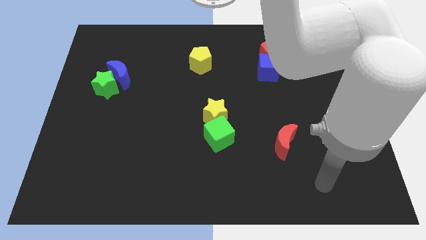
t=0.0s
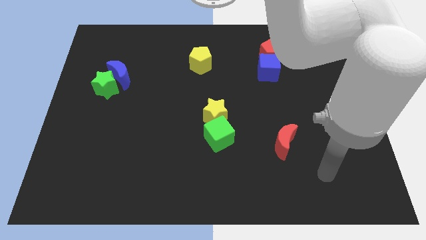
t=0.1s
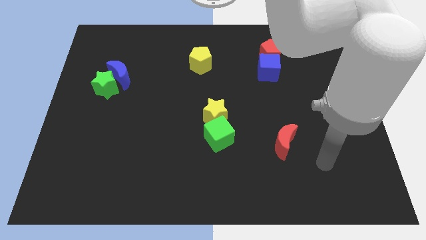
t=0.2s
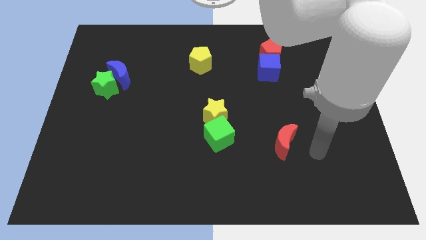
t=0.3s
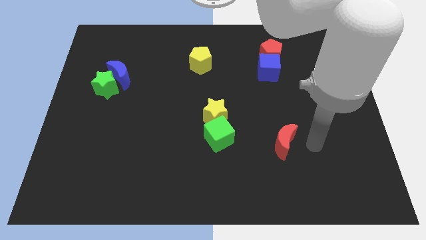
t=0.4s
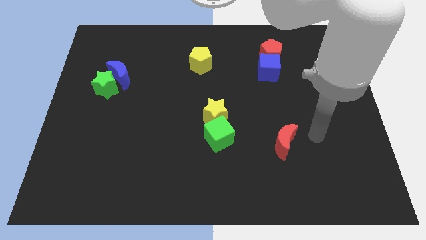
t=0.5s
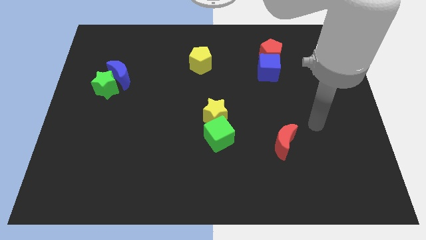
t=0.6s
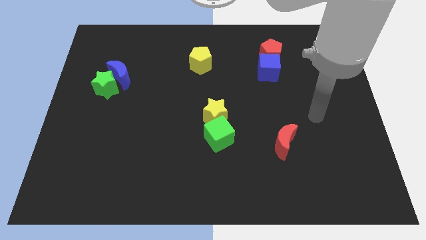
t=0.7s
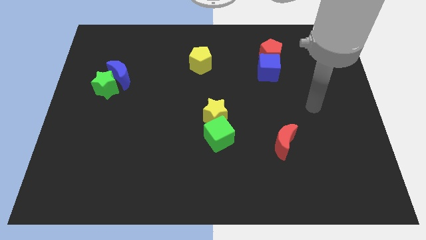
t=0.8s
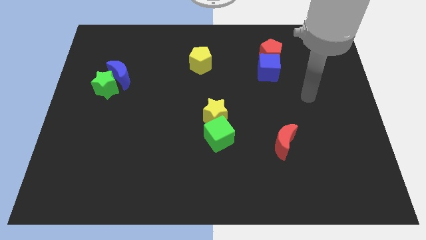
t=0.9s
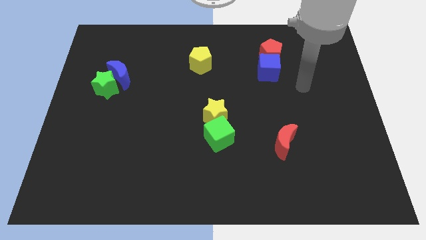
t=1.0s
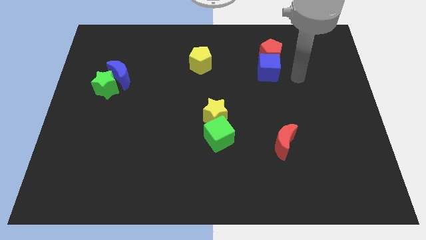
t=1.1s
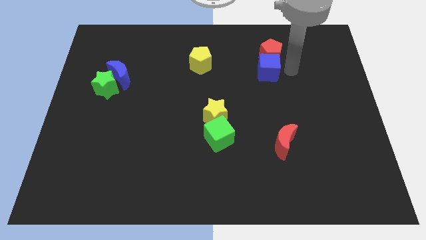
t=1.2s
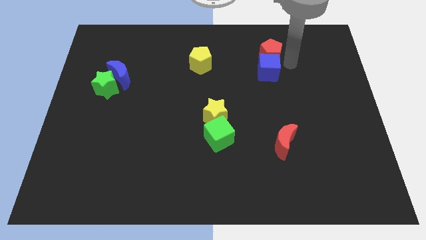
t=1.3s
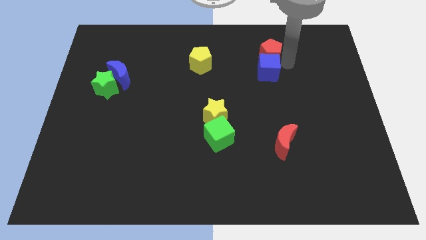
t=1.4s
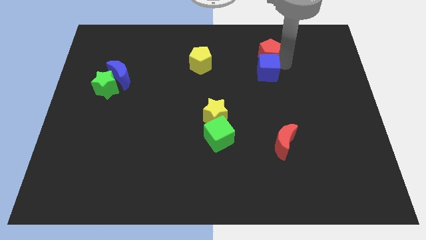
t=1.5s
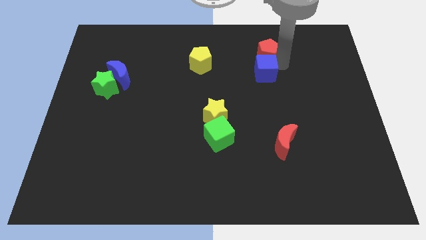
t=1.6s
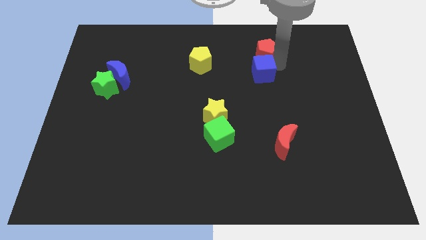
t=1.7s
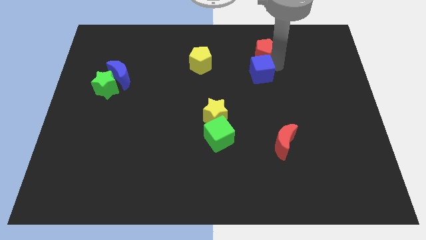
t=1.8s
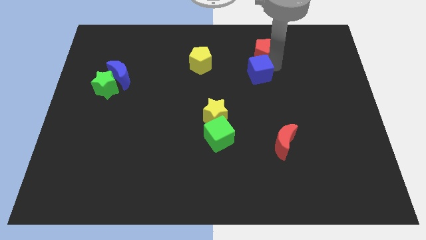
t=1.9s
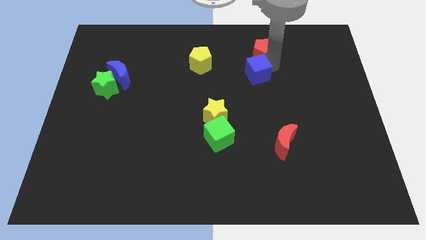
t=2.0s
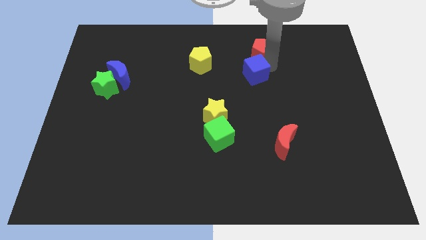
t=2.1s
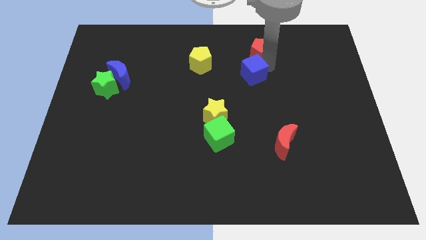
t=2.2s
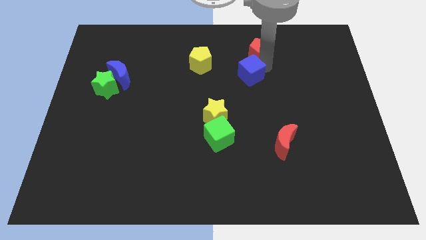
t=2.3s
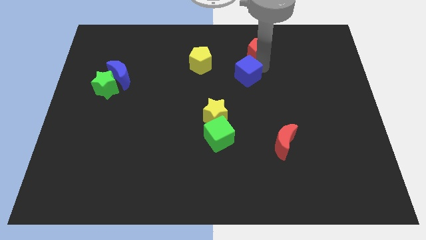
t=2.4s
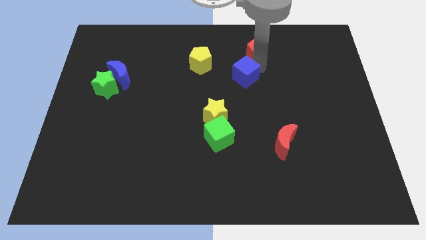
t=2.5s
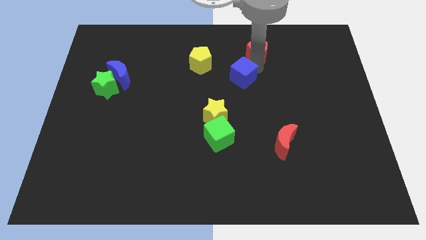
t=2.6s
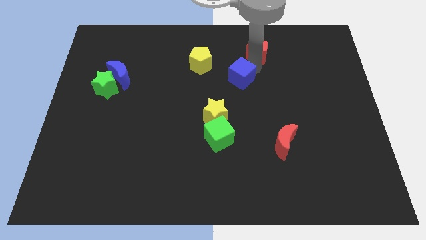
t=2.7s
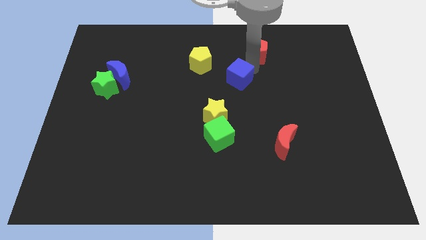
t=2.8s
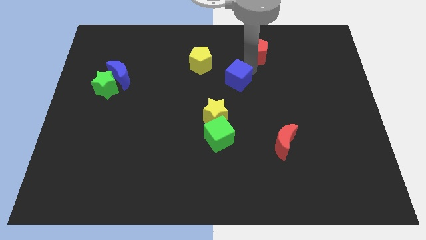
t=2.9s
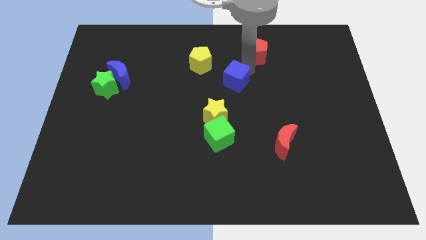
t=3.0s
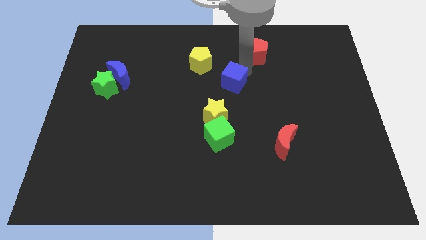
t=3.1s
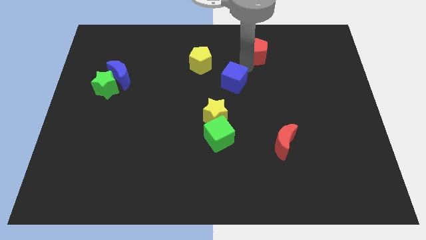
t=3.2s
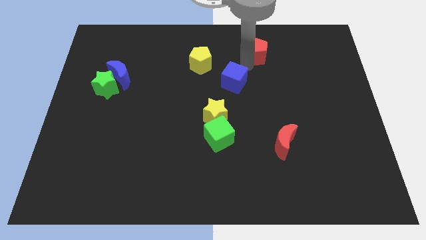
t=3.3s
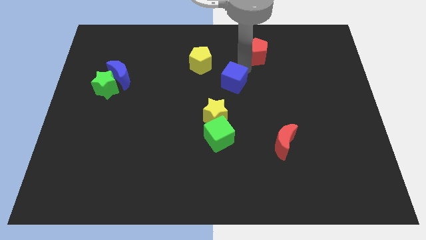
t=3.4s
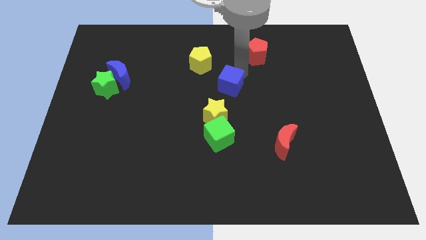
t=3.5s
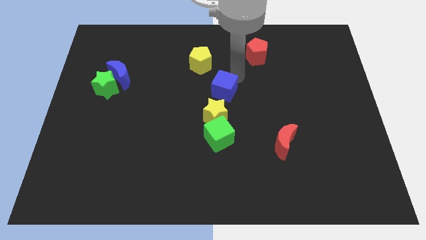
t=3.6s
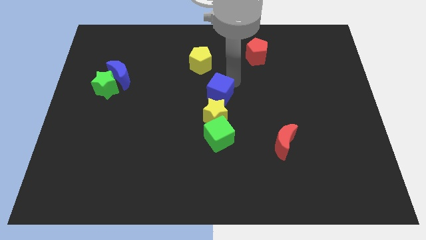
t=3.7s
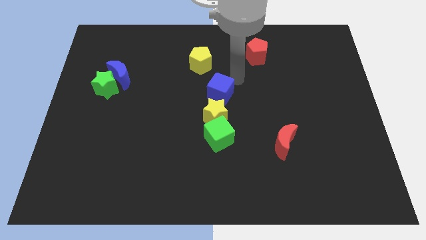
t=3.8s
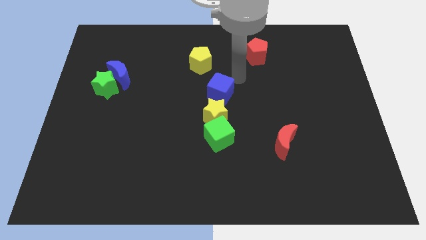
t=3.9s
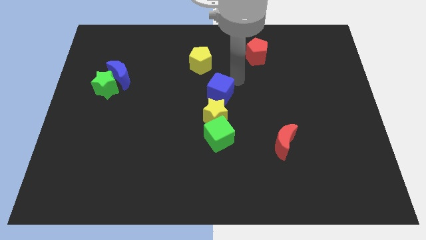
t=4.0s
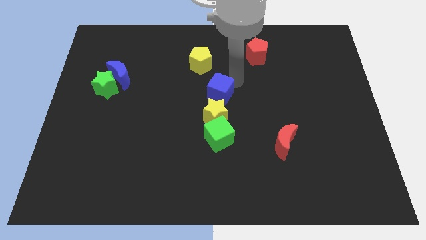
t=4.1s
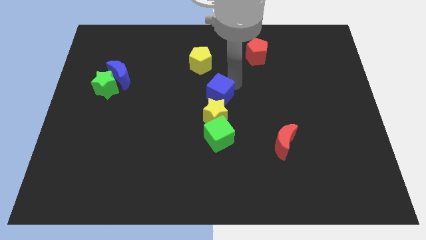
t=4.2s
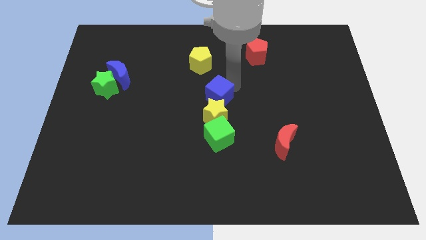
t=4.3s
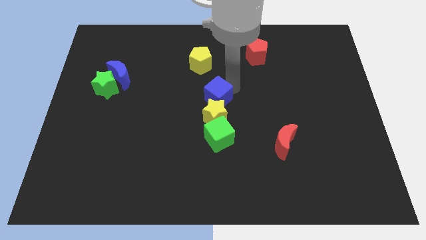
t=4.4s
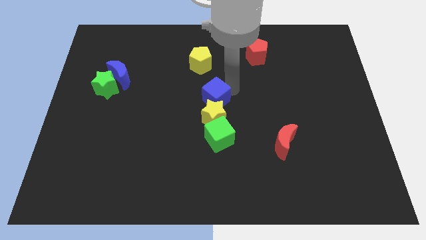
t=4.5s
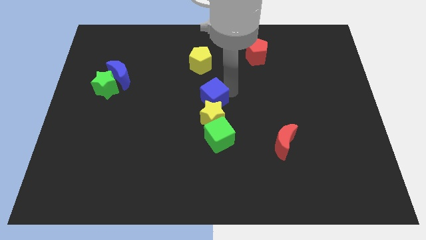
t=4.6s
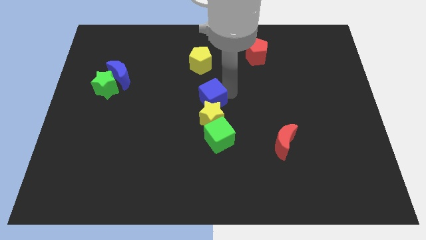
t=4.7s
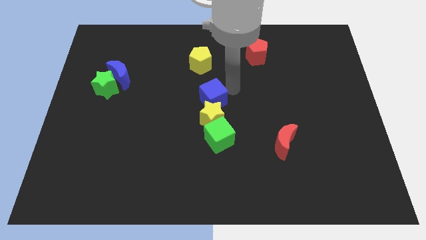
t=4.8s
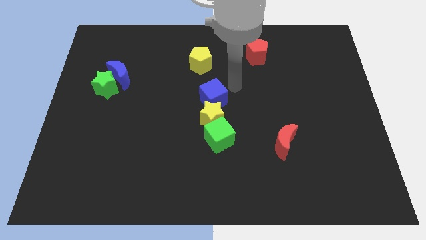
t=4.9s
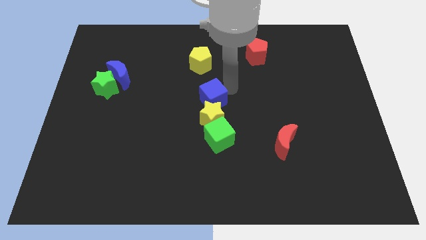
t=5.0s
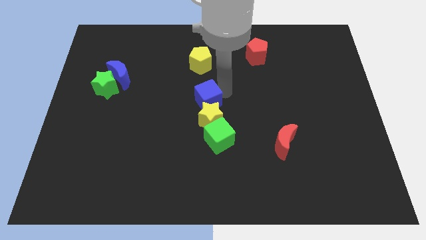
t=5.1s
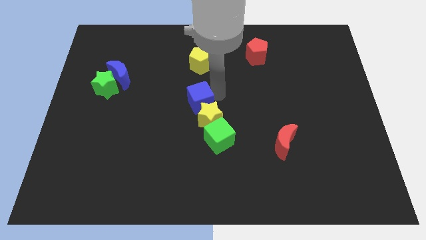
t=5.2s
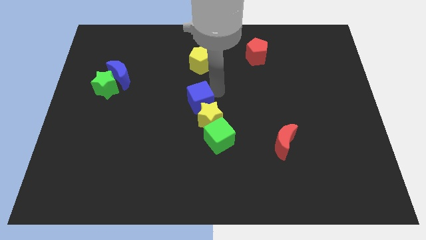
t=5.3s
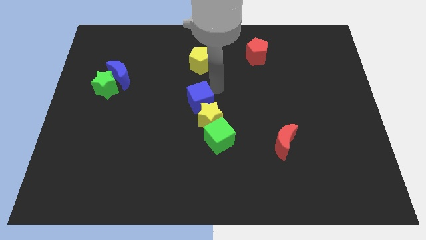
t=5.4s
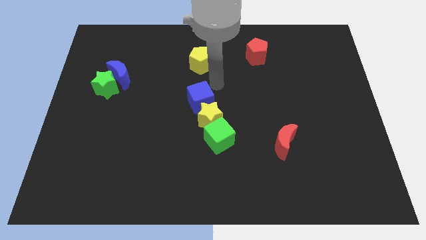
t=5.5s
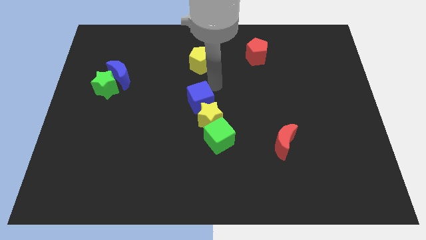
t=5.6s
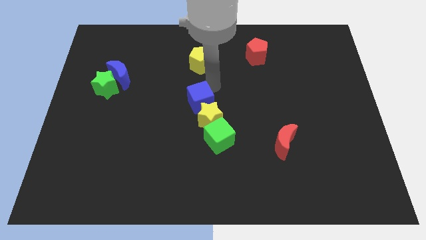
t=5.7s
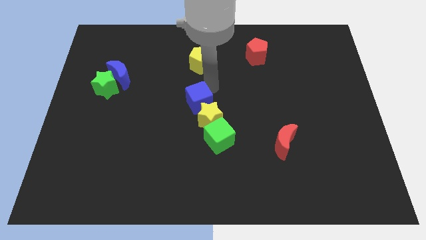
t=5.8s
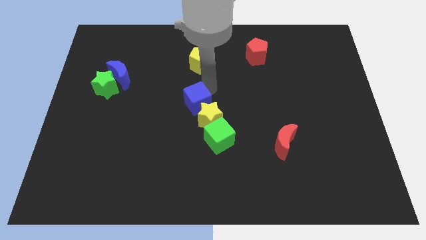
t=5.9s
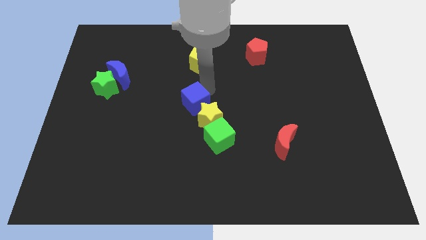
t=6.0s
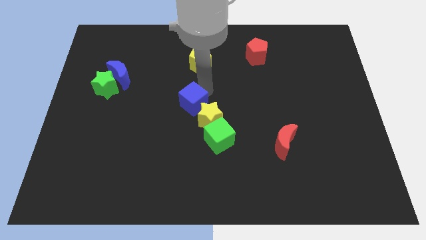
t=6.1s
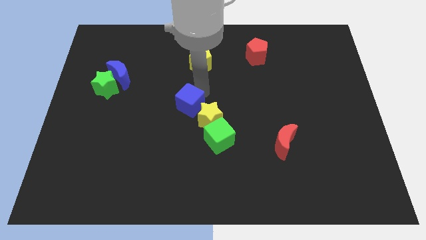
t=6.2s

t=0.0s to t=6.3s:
slide the blue cube downwards and then left

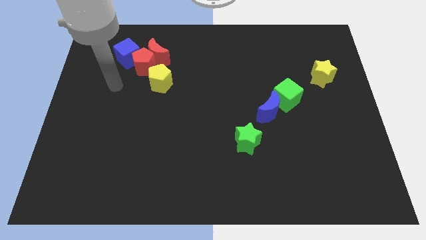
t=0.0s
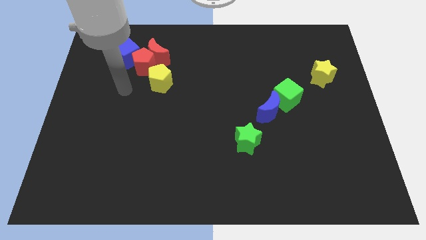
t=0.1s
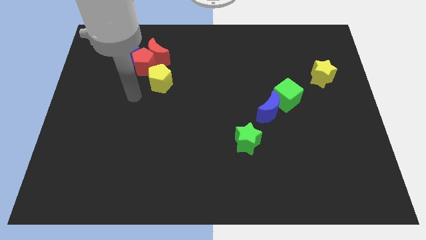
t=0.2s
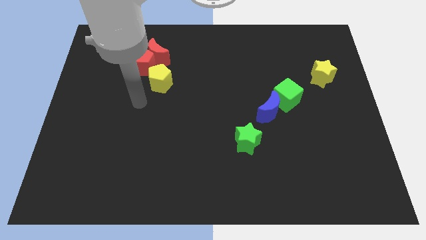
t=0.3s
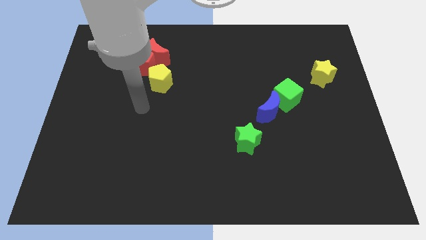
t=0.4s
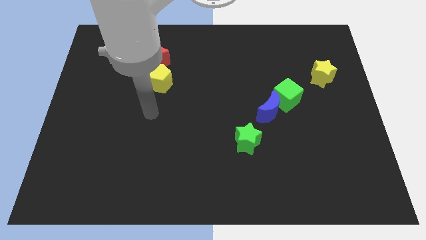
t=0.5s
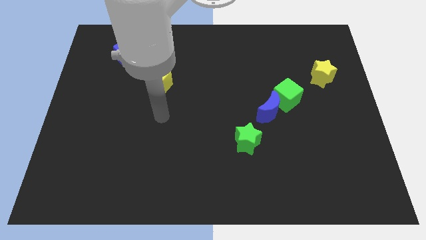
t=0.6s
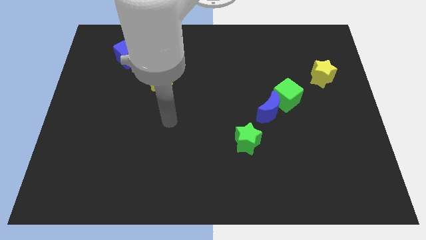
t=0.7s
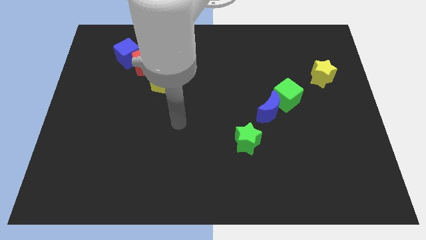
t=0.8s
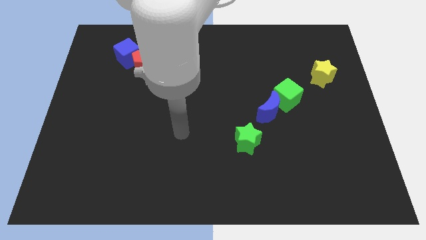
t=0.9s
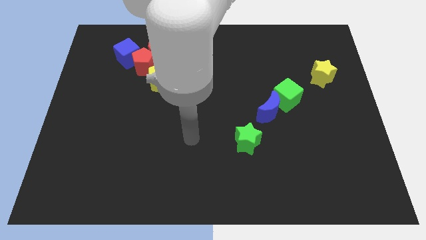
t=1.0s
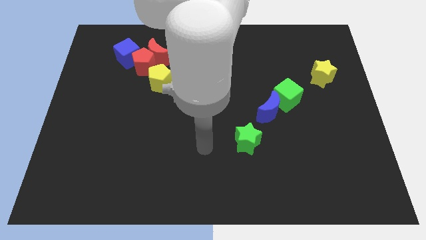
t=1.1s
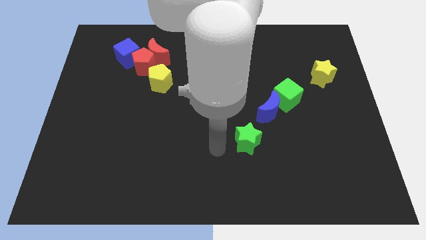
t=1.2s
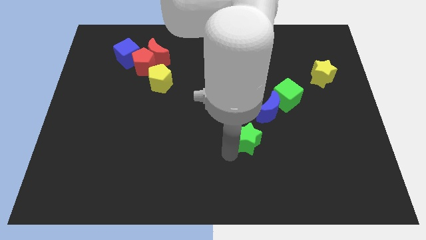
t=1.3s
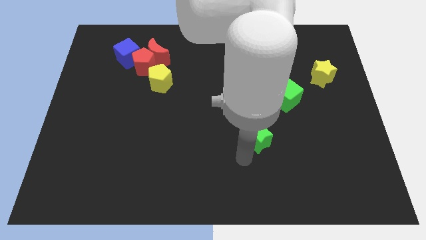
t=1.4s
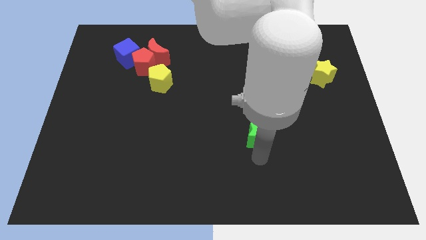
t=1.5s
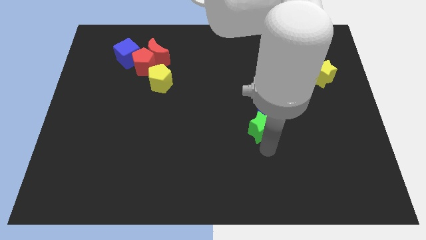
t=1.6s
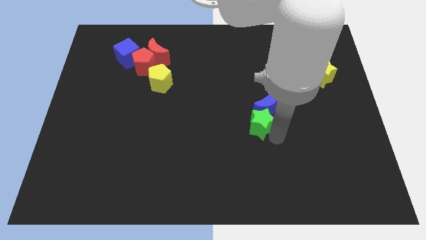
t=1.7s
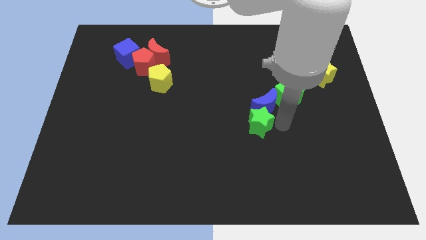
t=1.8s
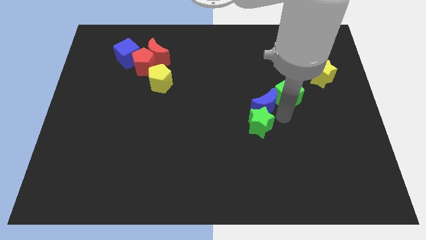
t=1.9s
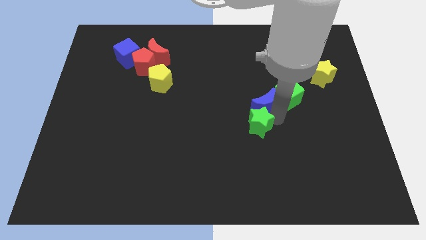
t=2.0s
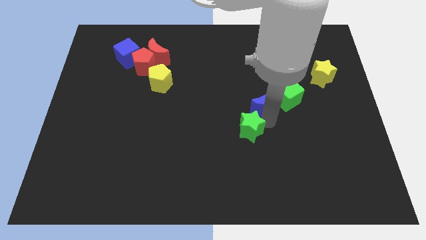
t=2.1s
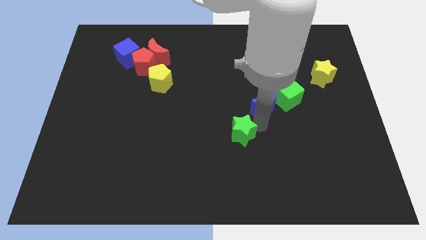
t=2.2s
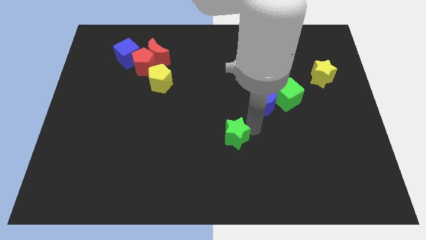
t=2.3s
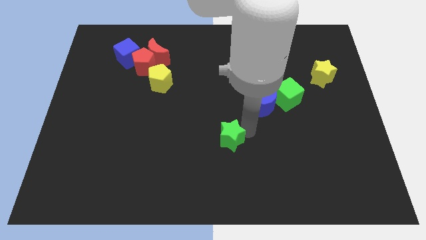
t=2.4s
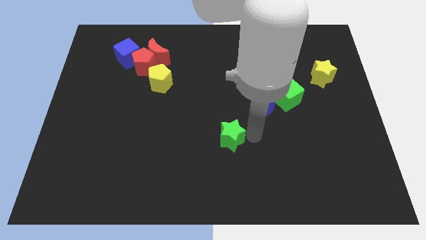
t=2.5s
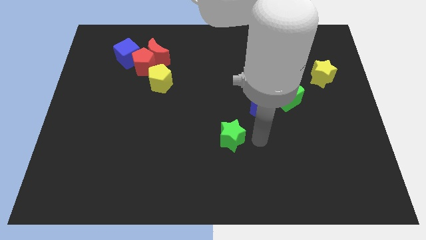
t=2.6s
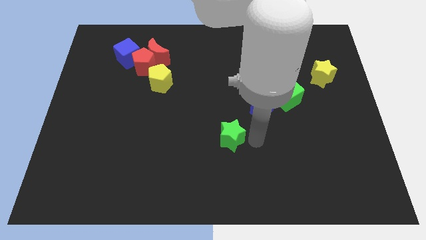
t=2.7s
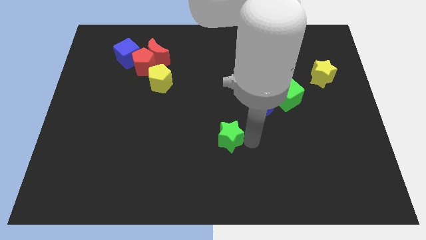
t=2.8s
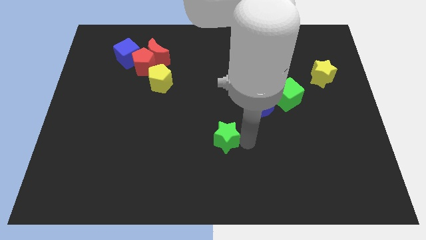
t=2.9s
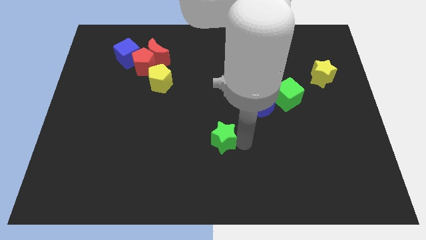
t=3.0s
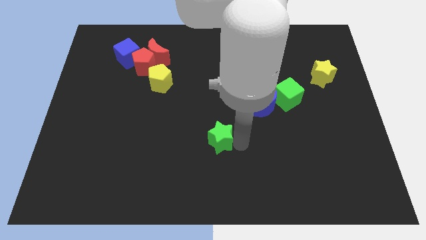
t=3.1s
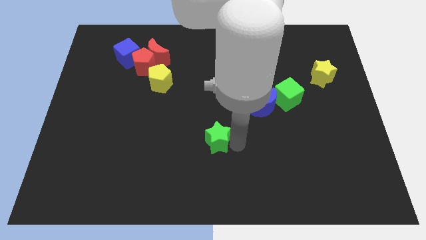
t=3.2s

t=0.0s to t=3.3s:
move the green star slightly left
